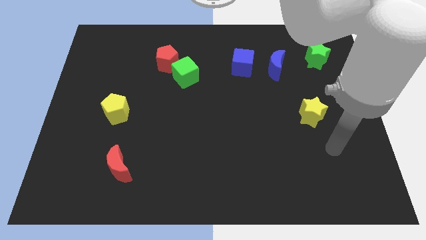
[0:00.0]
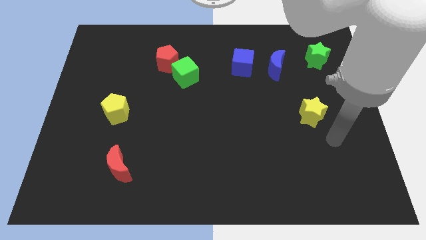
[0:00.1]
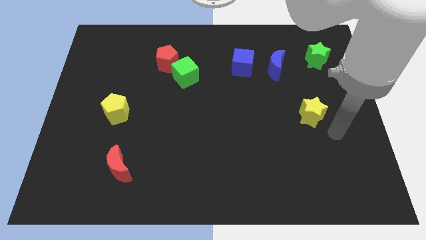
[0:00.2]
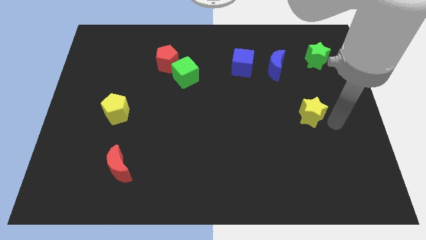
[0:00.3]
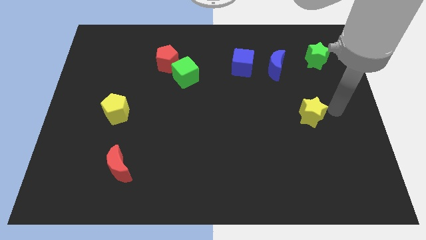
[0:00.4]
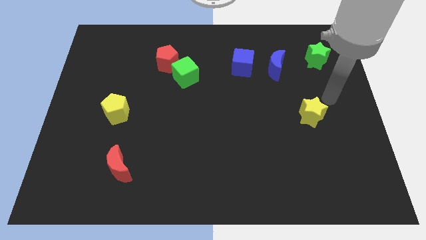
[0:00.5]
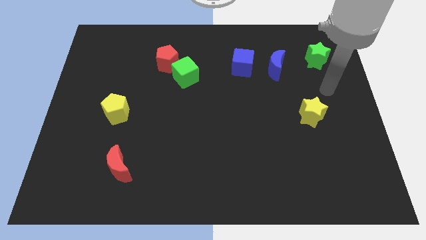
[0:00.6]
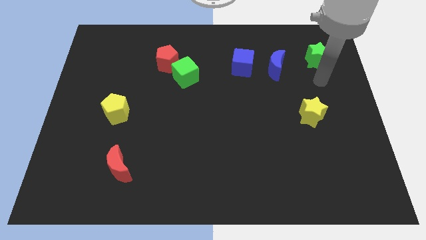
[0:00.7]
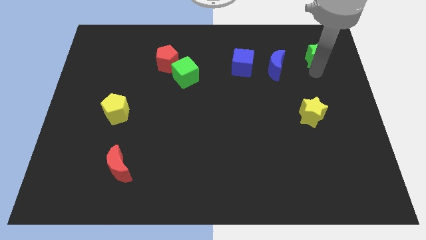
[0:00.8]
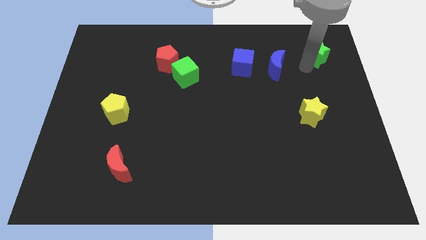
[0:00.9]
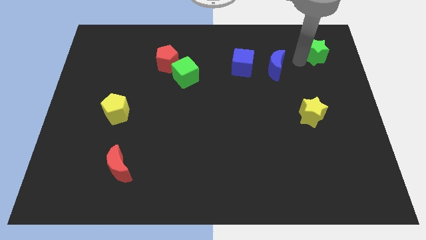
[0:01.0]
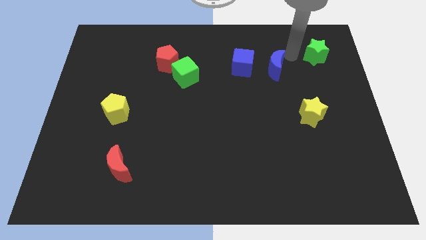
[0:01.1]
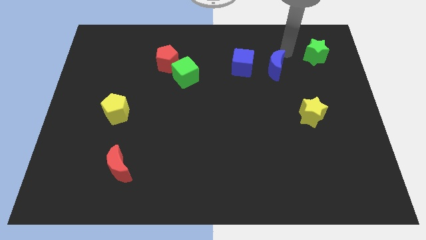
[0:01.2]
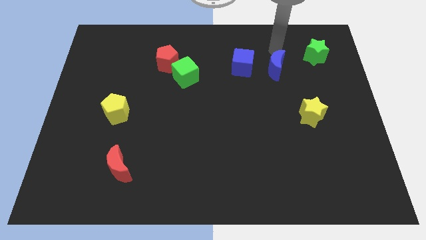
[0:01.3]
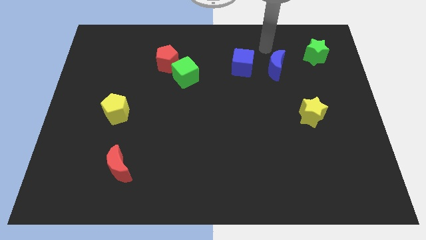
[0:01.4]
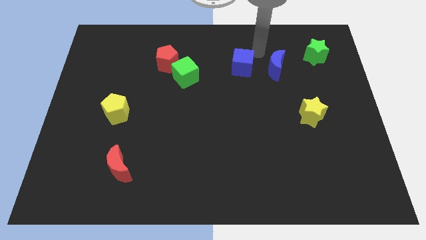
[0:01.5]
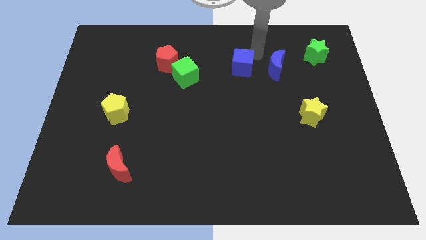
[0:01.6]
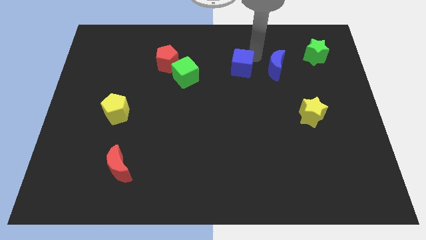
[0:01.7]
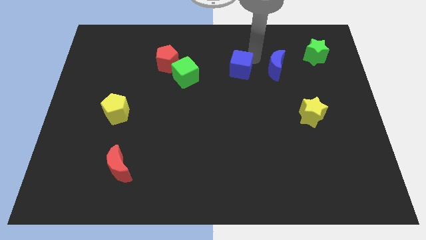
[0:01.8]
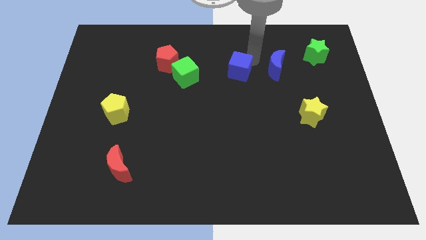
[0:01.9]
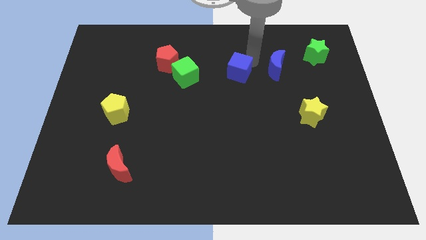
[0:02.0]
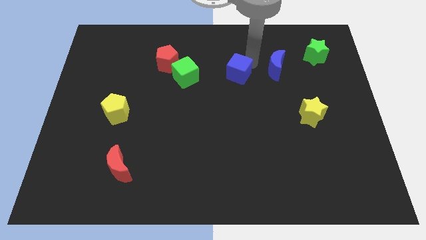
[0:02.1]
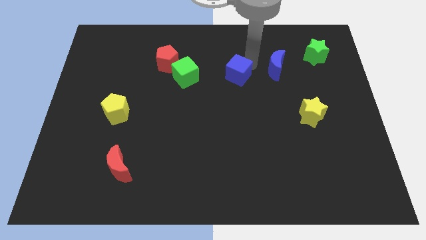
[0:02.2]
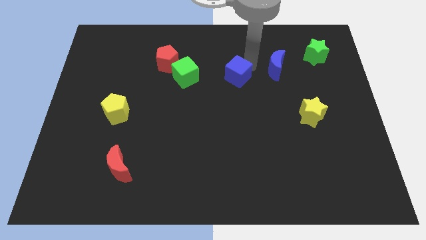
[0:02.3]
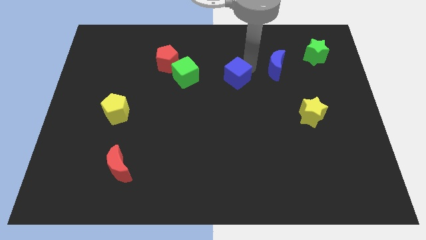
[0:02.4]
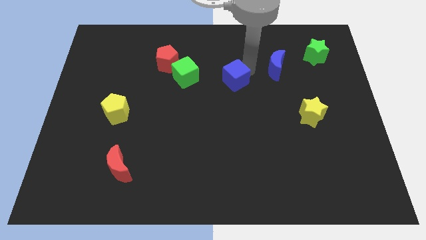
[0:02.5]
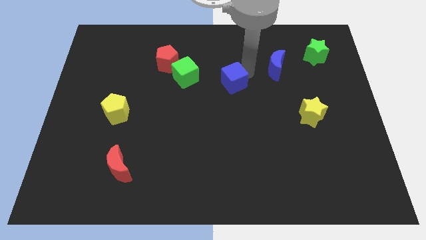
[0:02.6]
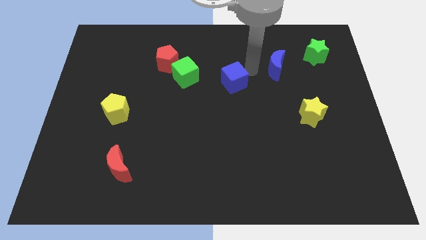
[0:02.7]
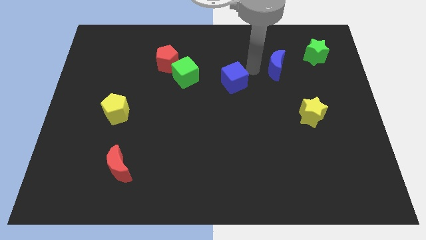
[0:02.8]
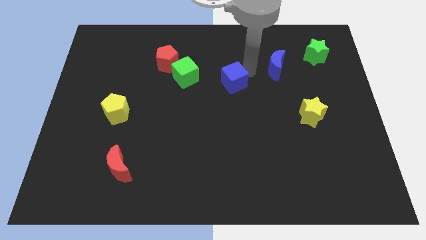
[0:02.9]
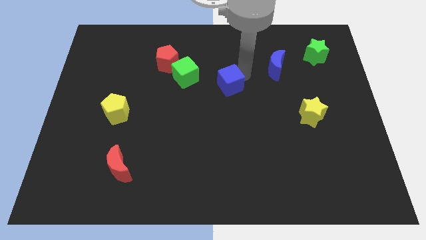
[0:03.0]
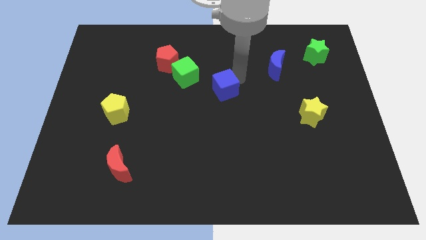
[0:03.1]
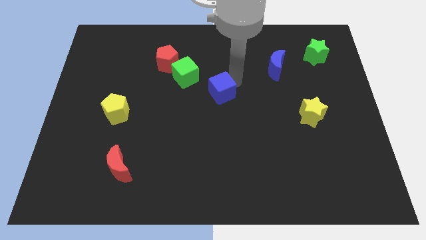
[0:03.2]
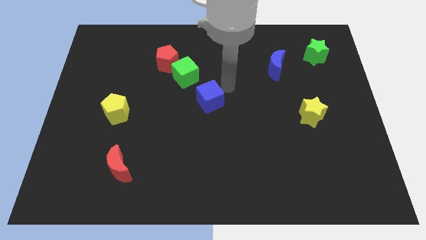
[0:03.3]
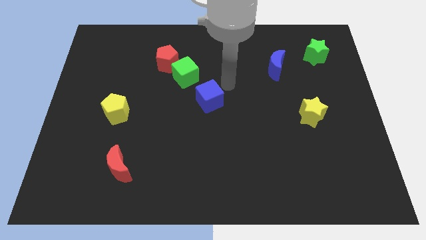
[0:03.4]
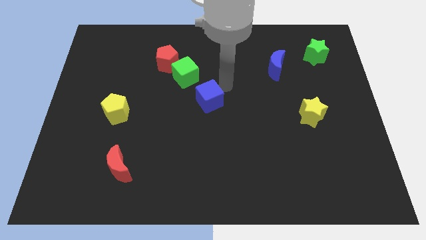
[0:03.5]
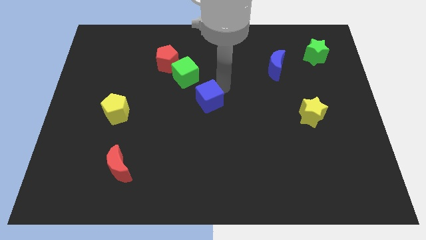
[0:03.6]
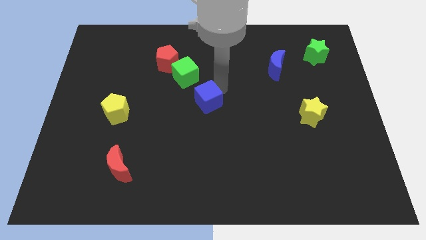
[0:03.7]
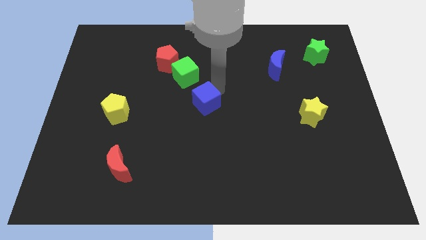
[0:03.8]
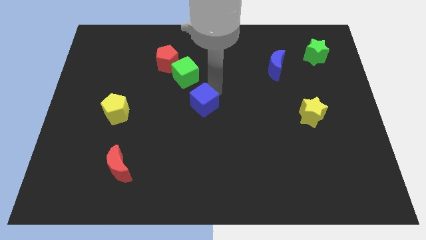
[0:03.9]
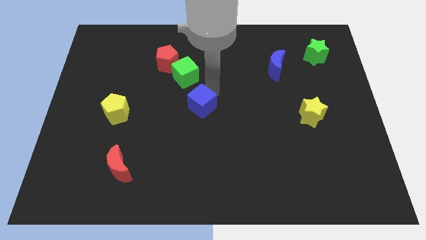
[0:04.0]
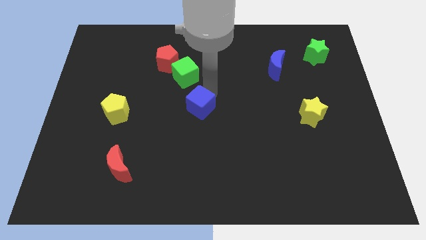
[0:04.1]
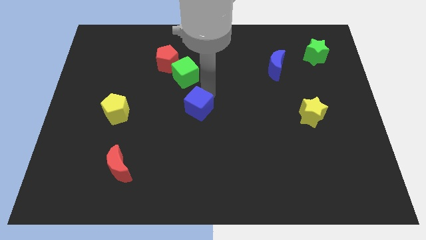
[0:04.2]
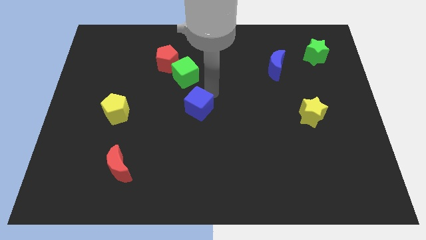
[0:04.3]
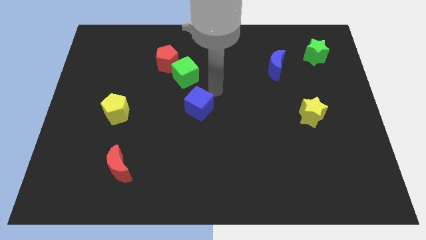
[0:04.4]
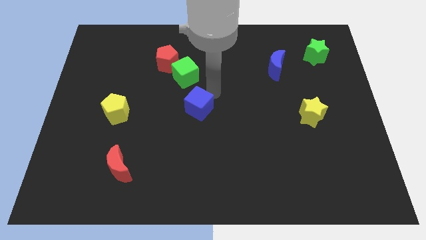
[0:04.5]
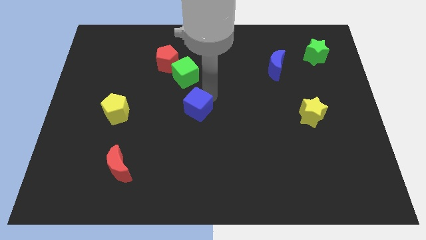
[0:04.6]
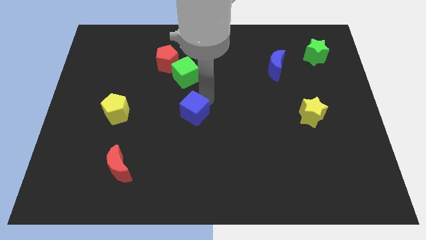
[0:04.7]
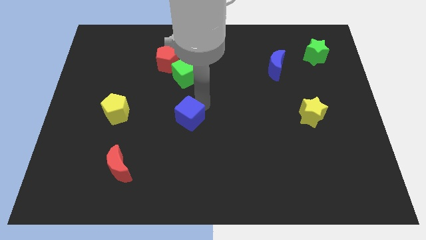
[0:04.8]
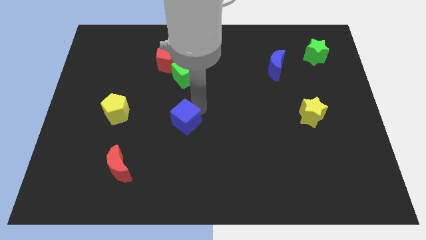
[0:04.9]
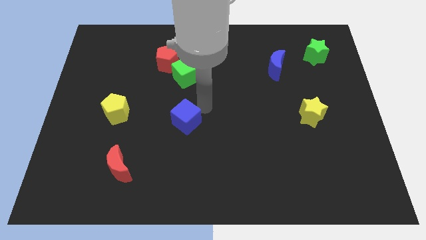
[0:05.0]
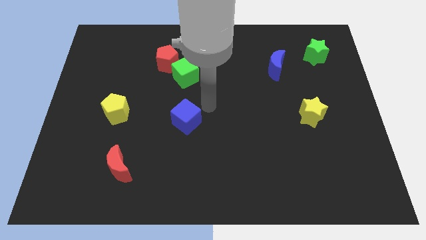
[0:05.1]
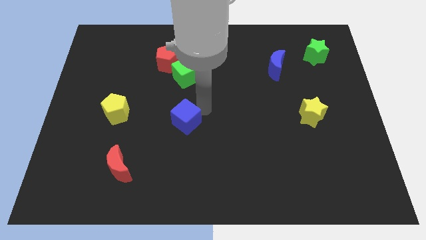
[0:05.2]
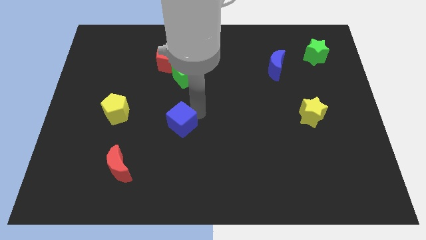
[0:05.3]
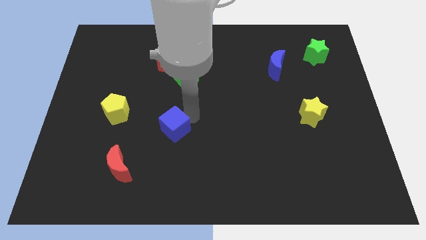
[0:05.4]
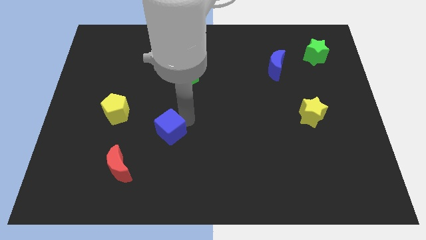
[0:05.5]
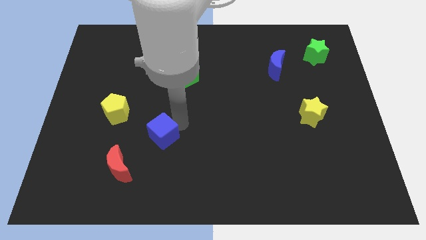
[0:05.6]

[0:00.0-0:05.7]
push the blue cube to the top right side of the red moon

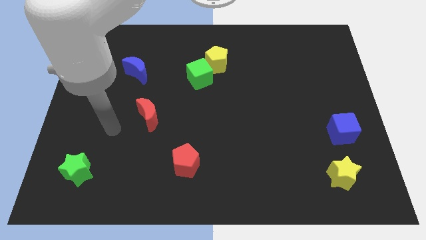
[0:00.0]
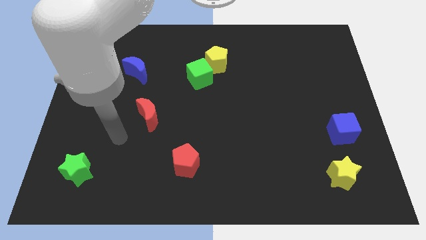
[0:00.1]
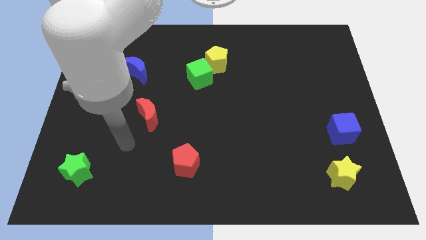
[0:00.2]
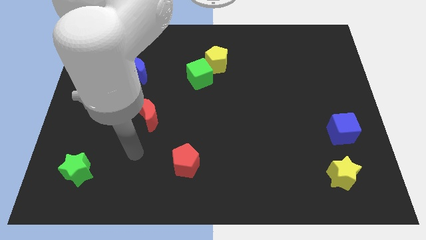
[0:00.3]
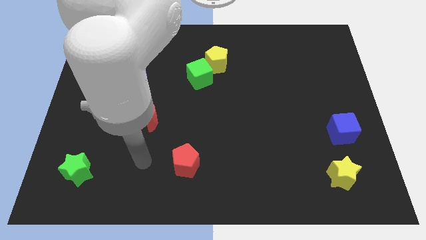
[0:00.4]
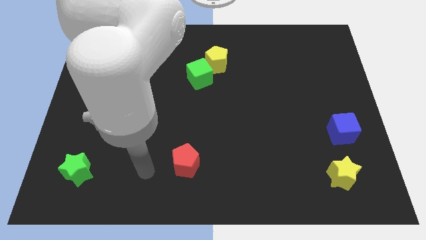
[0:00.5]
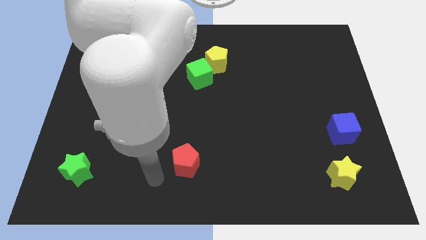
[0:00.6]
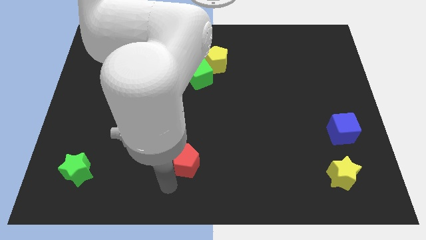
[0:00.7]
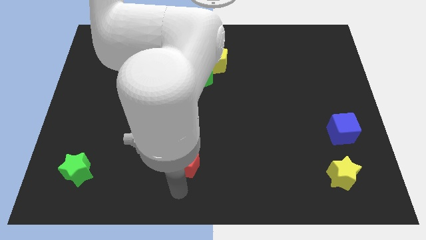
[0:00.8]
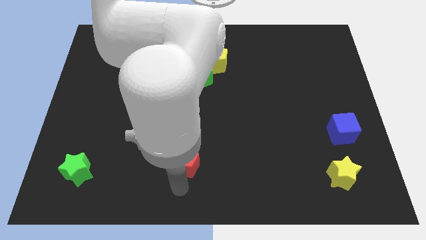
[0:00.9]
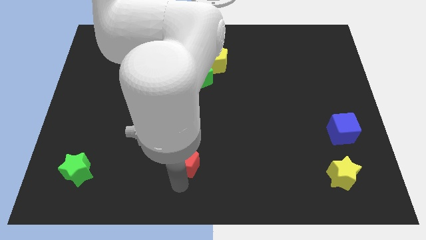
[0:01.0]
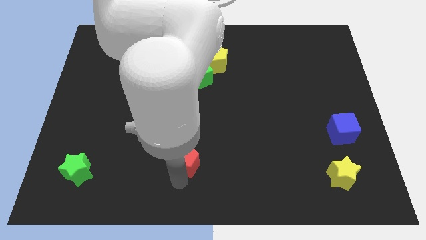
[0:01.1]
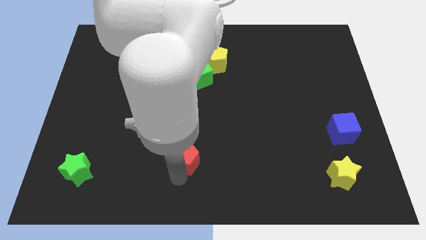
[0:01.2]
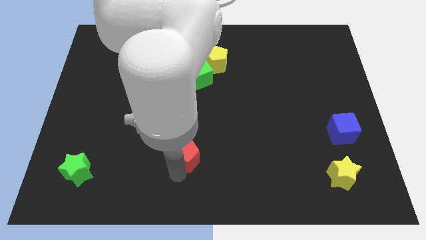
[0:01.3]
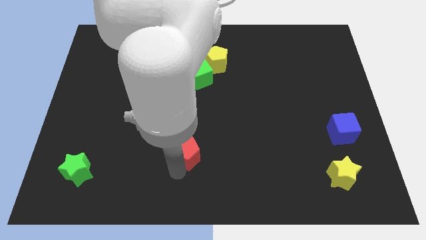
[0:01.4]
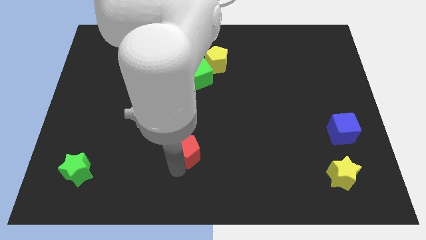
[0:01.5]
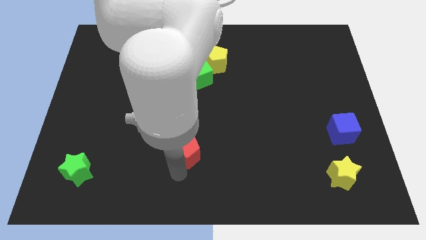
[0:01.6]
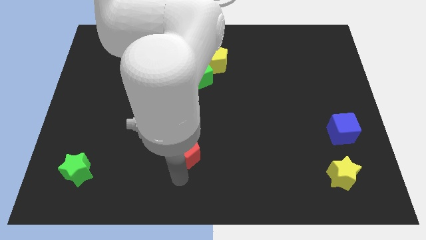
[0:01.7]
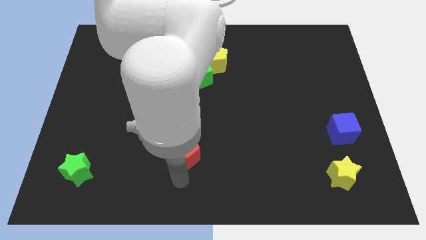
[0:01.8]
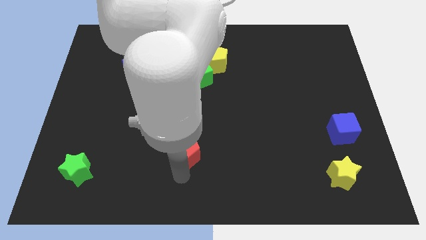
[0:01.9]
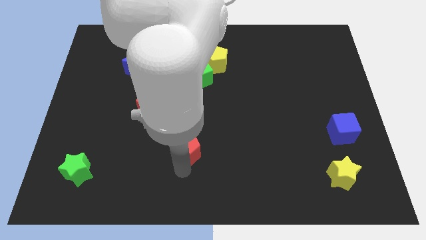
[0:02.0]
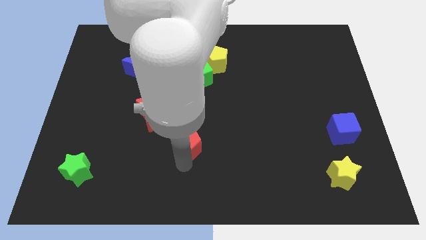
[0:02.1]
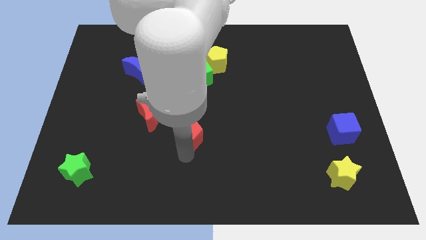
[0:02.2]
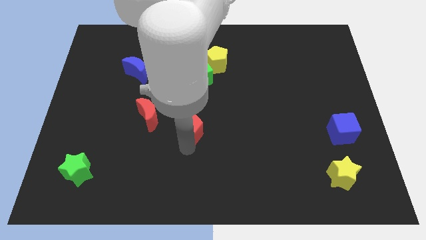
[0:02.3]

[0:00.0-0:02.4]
slide the red pentagon to the right of the red moon
